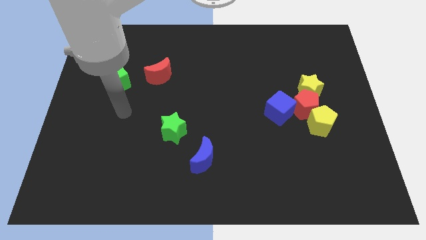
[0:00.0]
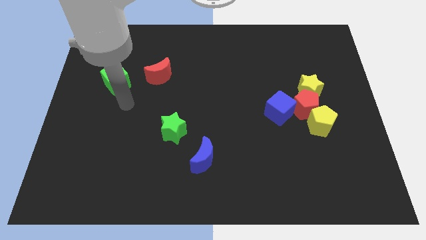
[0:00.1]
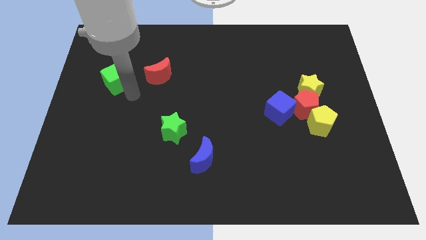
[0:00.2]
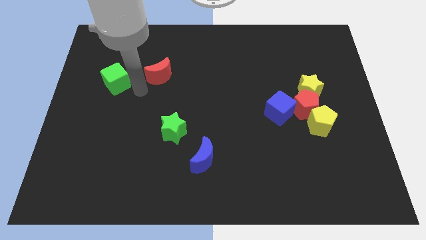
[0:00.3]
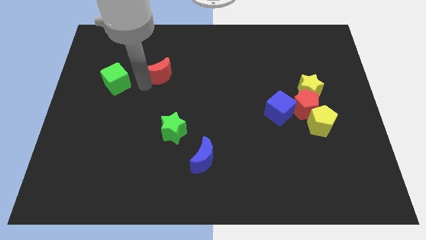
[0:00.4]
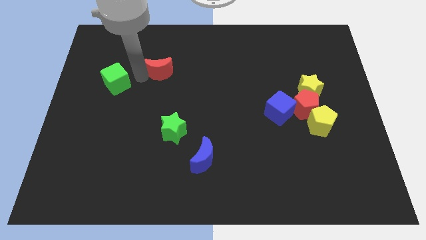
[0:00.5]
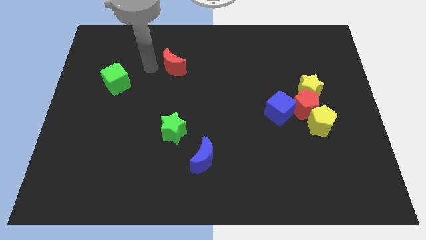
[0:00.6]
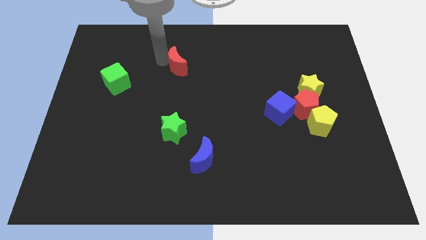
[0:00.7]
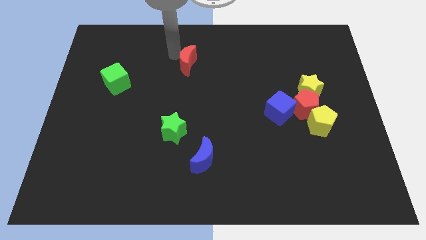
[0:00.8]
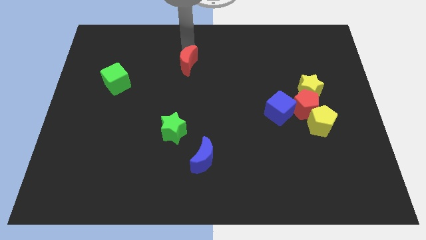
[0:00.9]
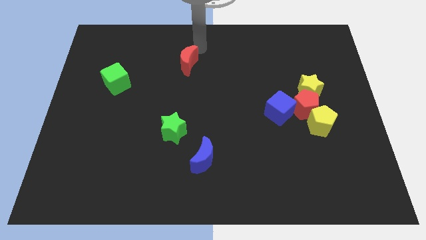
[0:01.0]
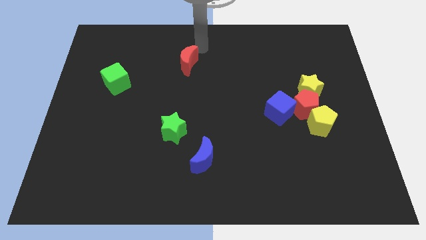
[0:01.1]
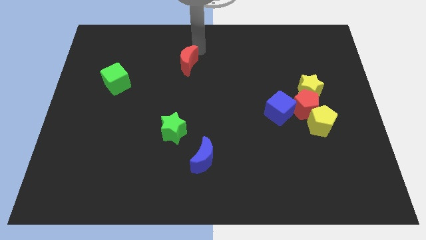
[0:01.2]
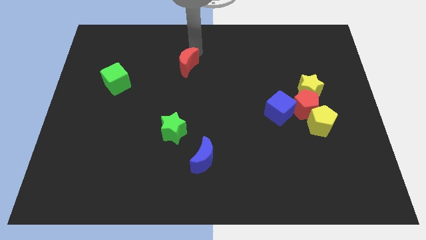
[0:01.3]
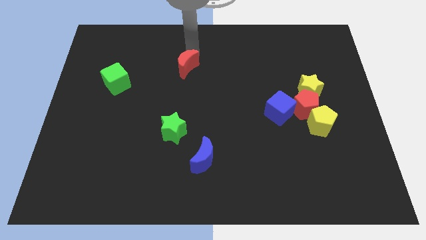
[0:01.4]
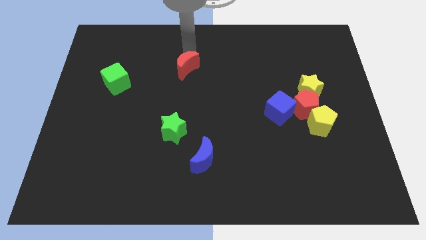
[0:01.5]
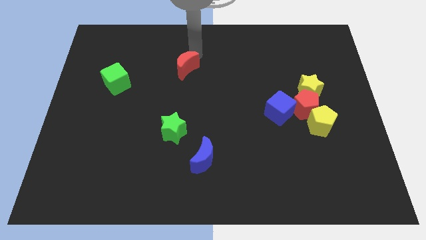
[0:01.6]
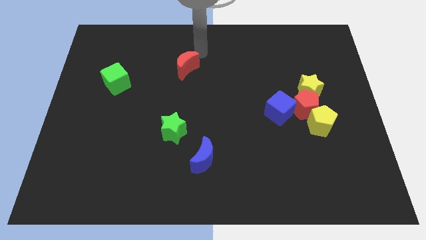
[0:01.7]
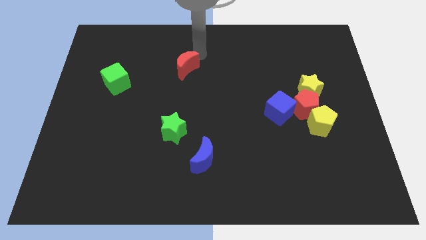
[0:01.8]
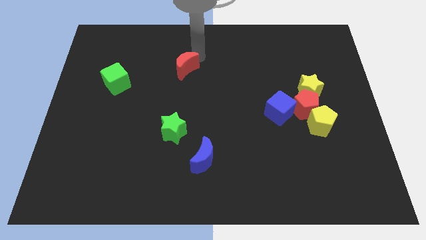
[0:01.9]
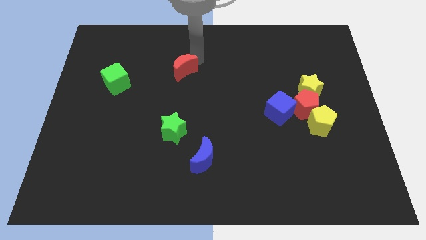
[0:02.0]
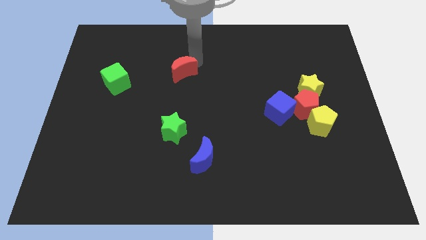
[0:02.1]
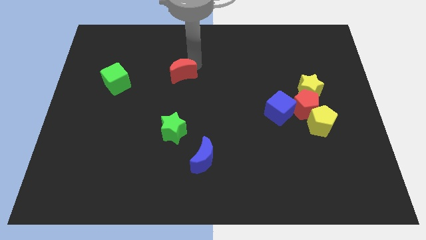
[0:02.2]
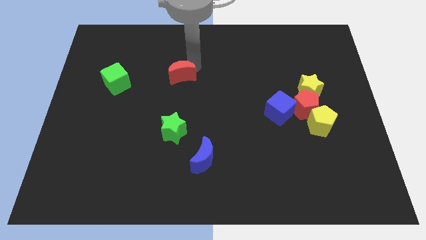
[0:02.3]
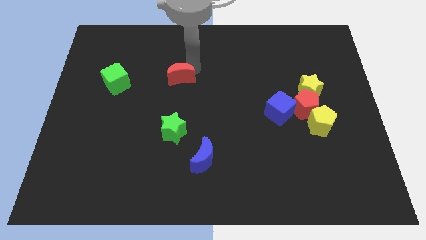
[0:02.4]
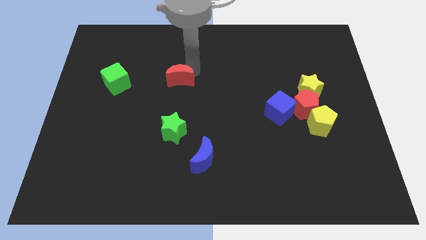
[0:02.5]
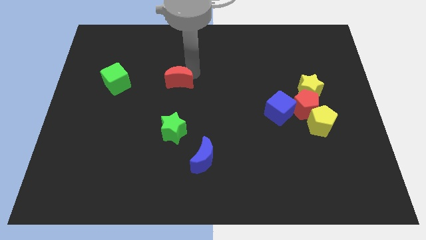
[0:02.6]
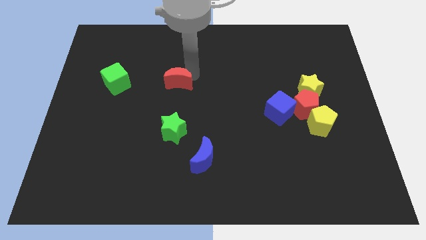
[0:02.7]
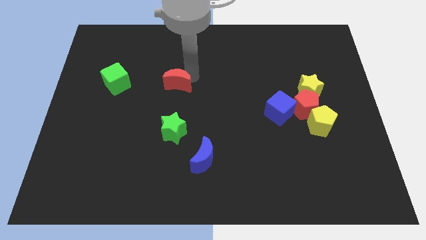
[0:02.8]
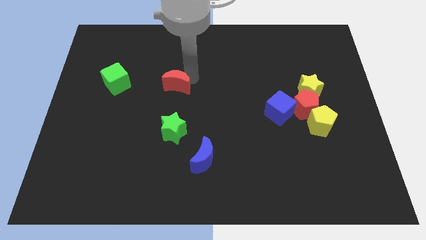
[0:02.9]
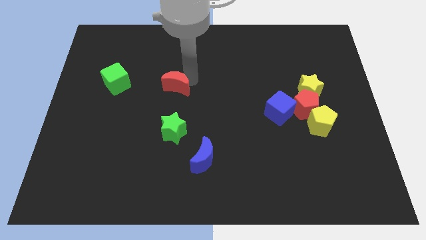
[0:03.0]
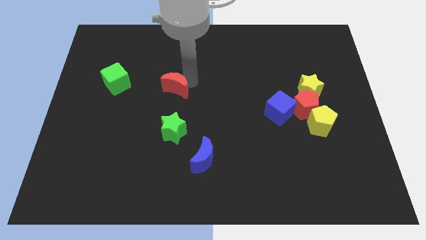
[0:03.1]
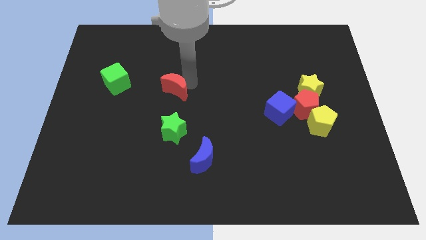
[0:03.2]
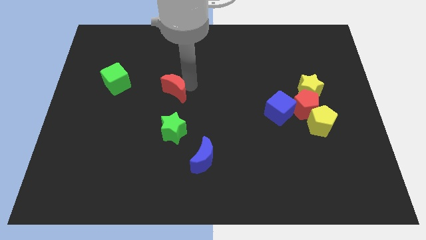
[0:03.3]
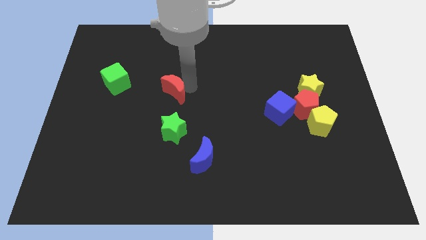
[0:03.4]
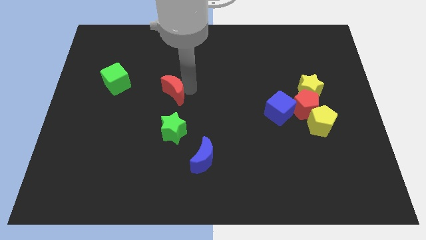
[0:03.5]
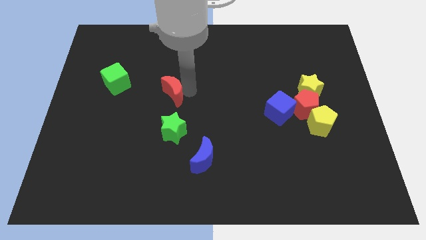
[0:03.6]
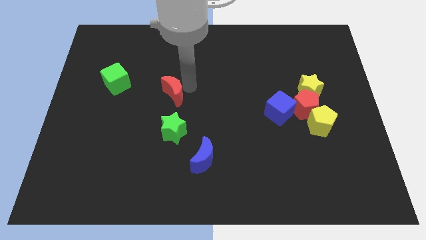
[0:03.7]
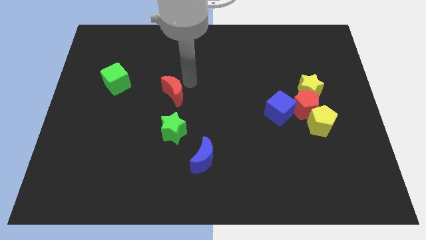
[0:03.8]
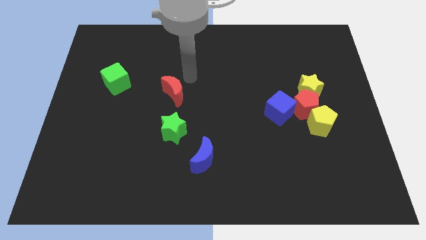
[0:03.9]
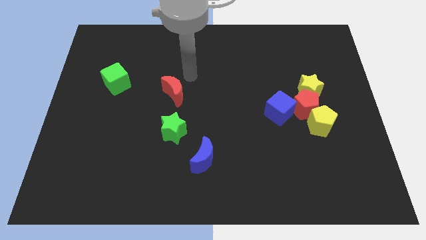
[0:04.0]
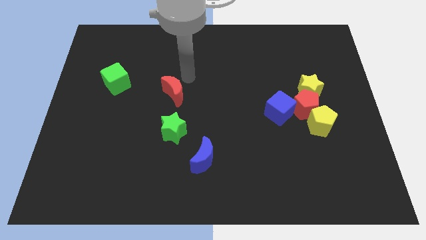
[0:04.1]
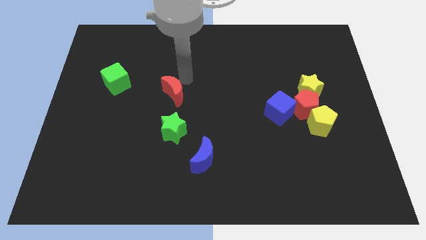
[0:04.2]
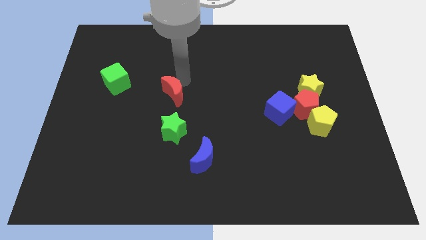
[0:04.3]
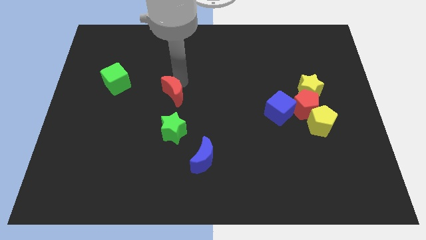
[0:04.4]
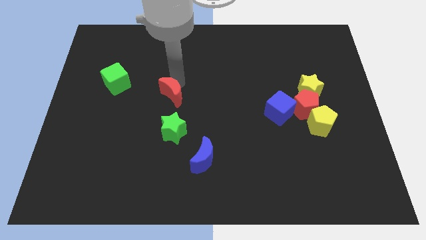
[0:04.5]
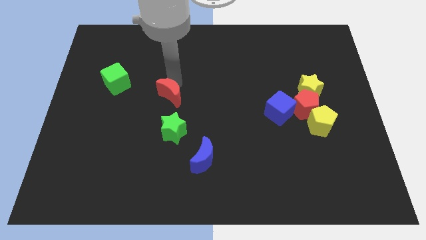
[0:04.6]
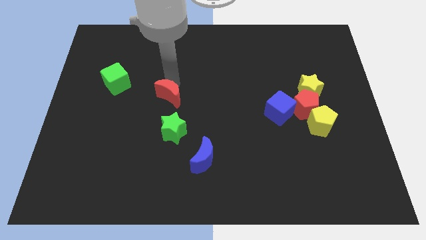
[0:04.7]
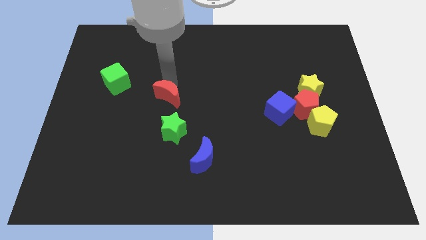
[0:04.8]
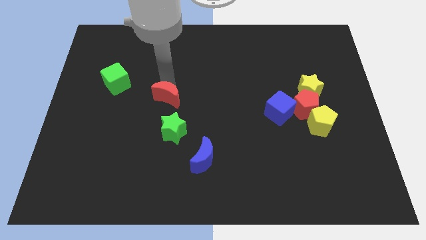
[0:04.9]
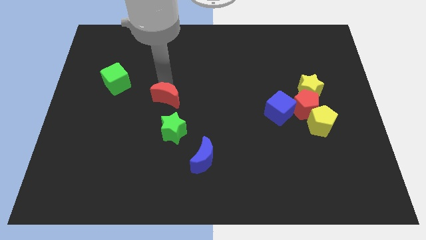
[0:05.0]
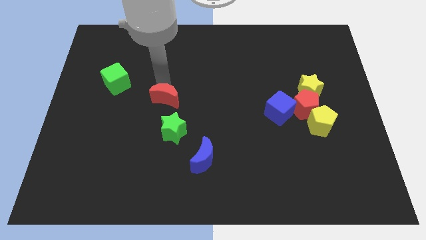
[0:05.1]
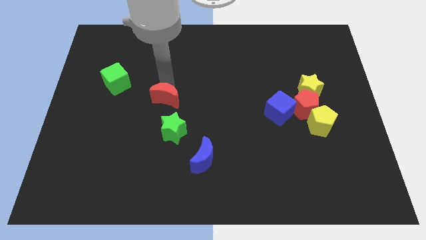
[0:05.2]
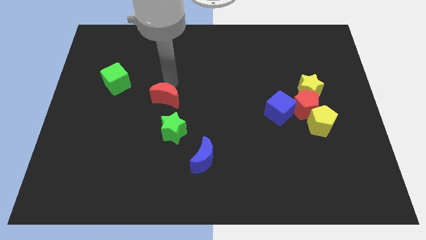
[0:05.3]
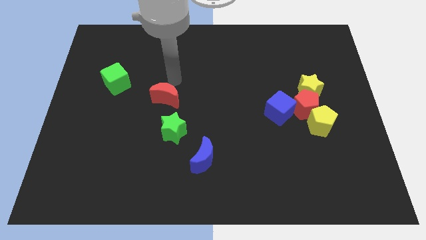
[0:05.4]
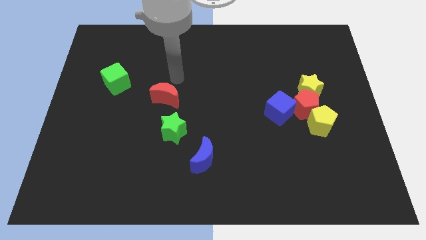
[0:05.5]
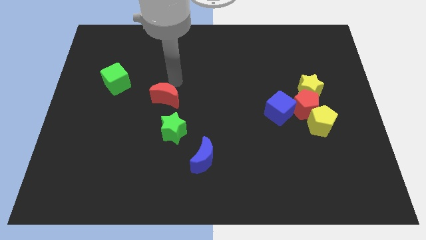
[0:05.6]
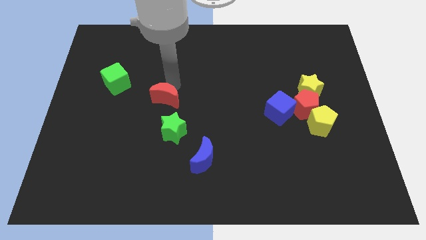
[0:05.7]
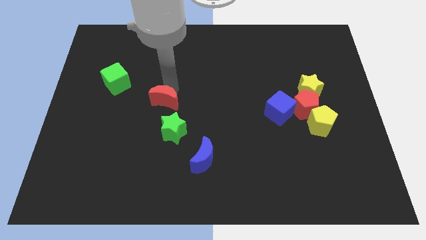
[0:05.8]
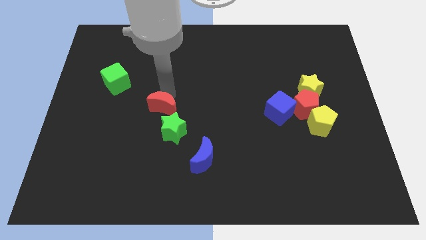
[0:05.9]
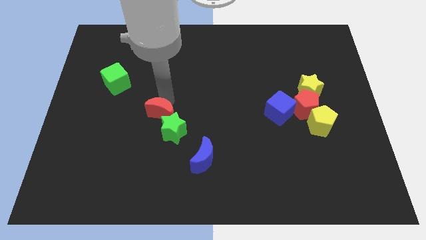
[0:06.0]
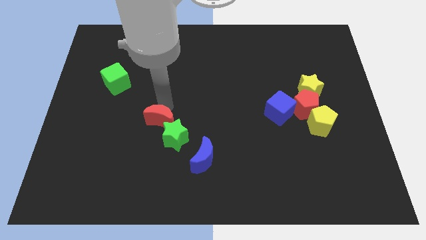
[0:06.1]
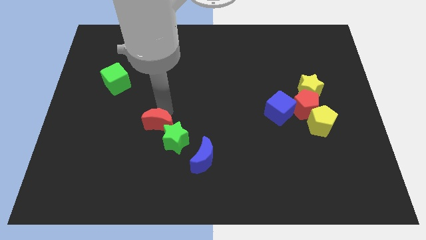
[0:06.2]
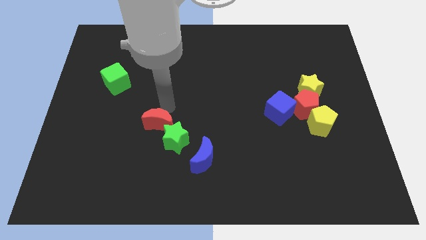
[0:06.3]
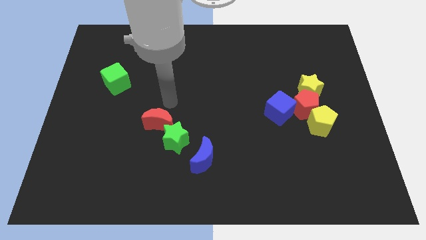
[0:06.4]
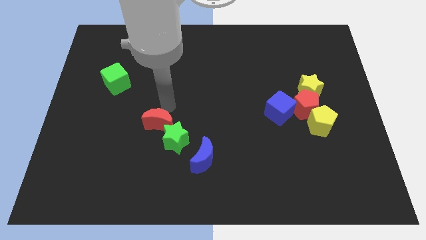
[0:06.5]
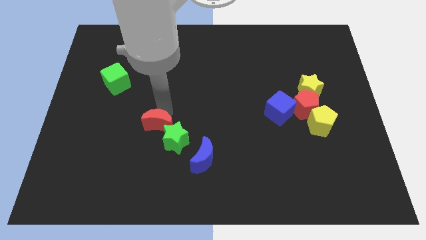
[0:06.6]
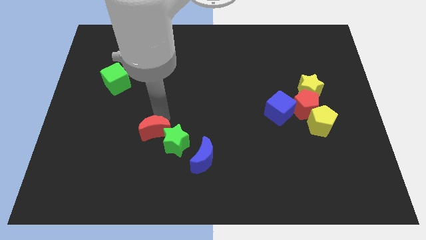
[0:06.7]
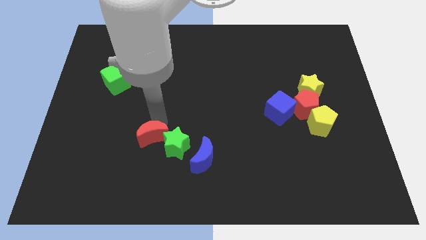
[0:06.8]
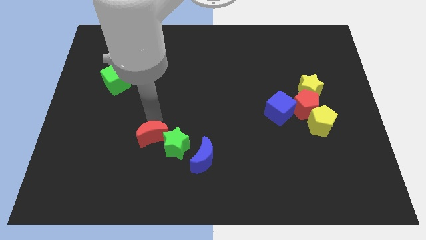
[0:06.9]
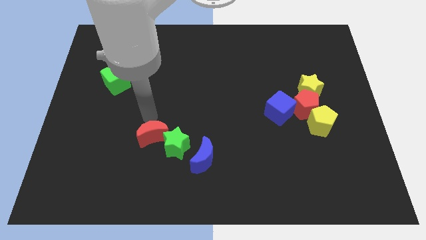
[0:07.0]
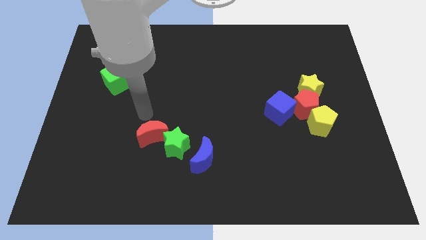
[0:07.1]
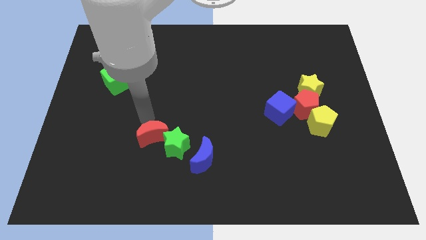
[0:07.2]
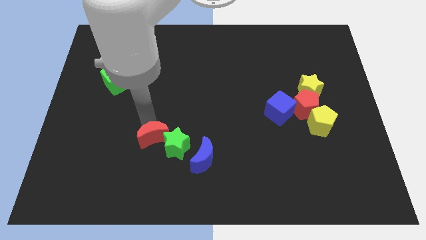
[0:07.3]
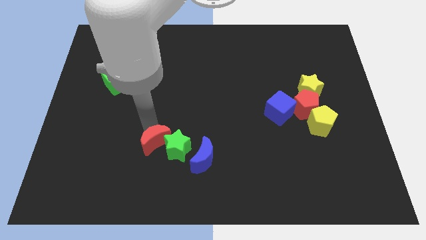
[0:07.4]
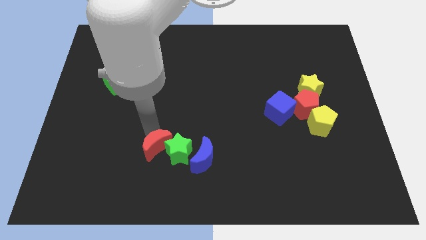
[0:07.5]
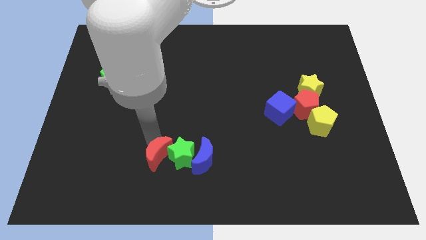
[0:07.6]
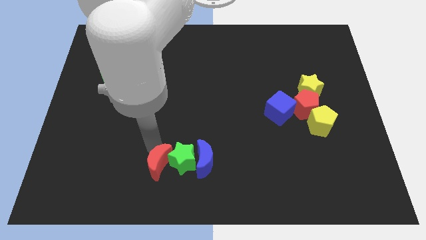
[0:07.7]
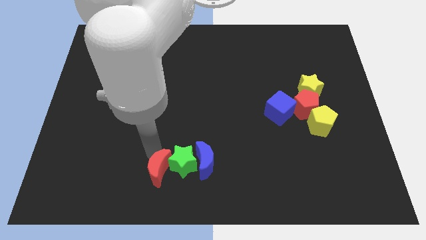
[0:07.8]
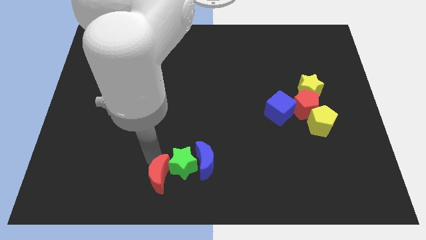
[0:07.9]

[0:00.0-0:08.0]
slide the red moon to the bottom side
